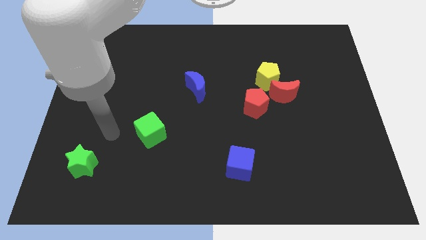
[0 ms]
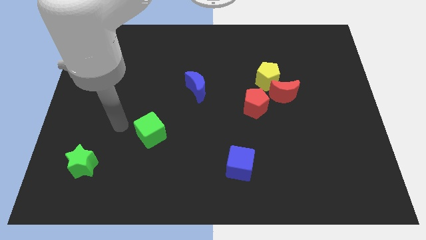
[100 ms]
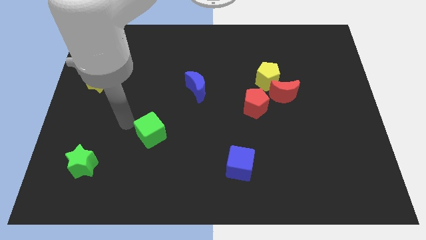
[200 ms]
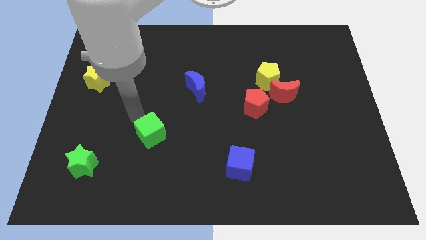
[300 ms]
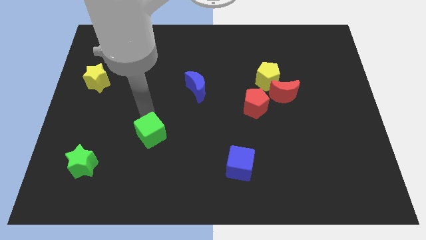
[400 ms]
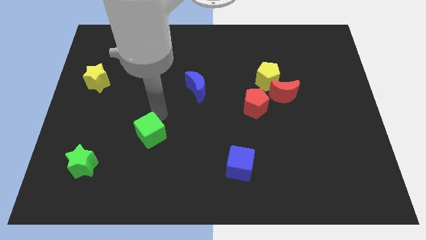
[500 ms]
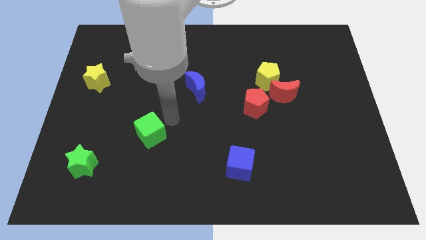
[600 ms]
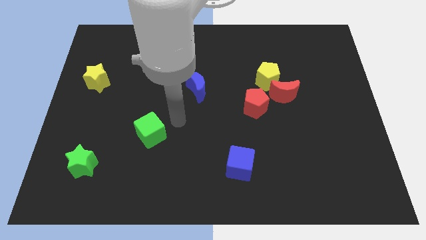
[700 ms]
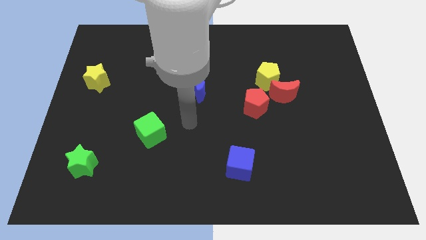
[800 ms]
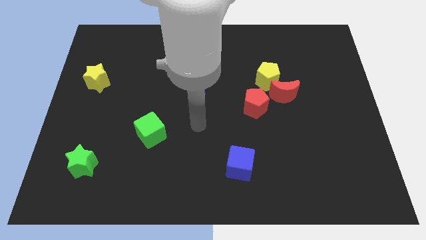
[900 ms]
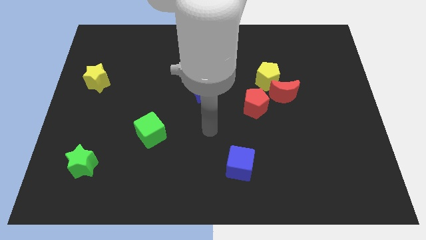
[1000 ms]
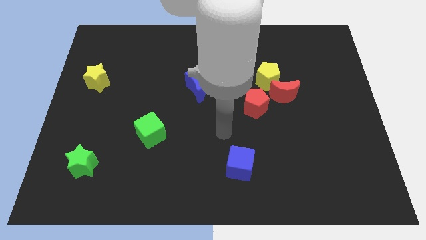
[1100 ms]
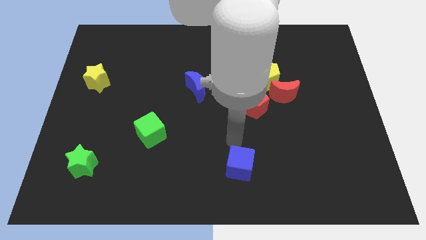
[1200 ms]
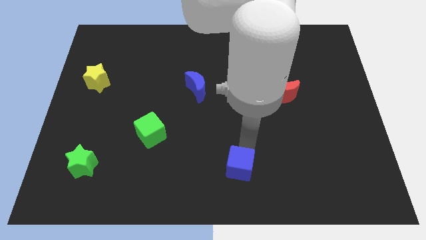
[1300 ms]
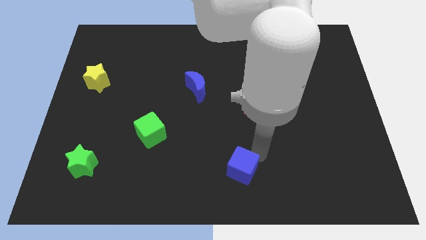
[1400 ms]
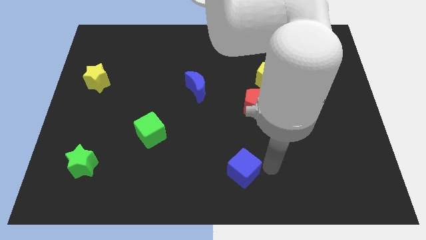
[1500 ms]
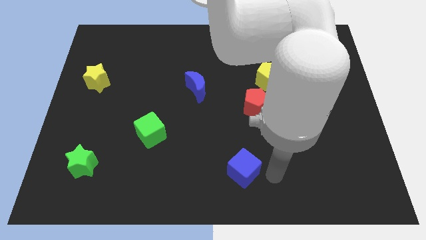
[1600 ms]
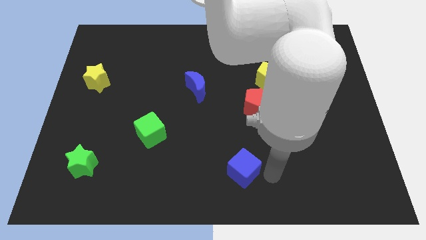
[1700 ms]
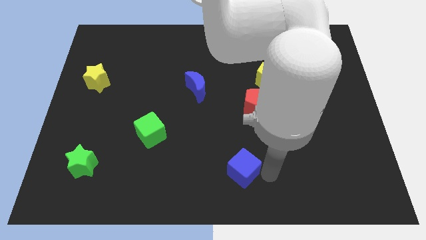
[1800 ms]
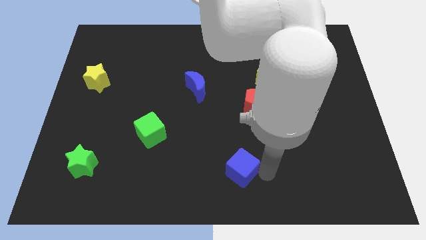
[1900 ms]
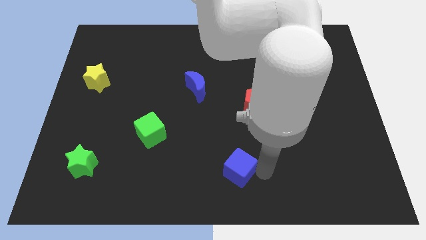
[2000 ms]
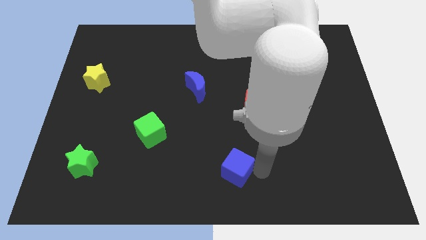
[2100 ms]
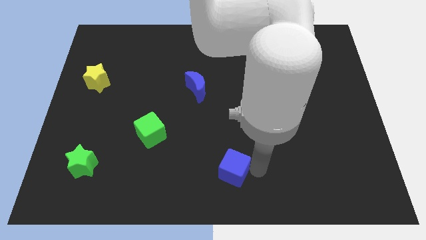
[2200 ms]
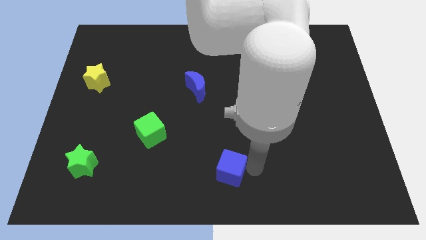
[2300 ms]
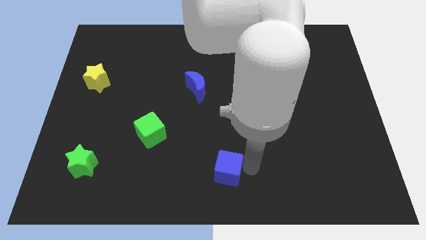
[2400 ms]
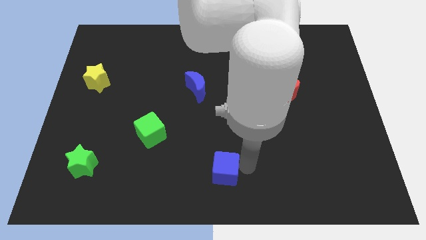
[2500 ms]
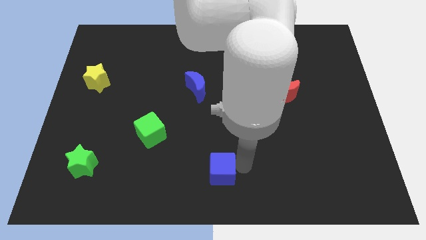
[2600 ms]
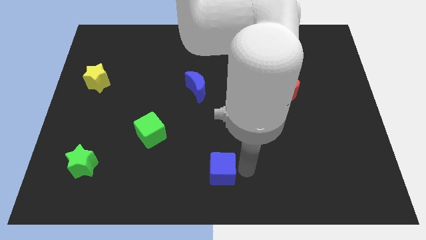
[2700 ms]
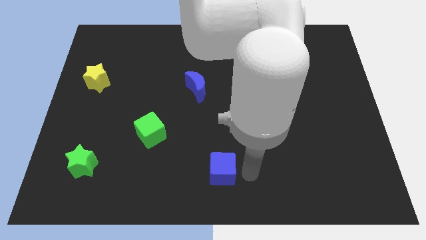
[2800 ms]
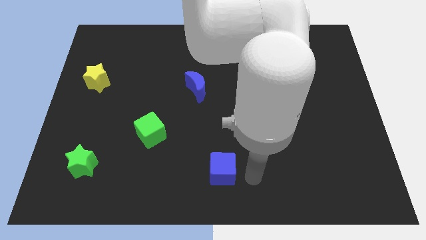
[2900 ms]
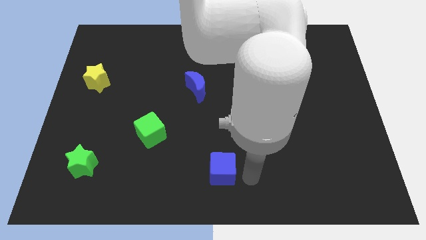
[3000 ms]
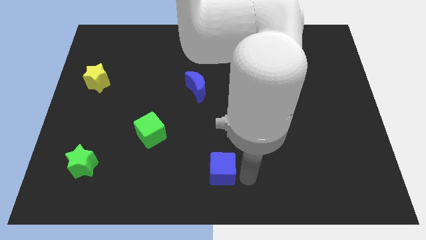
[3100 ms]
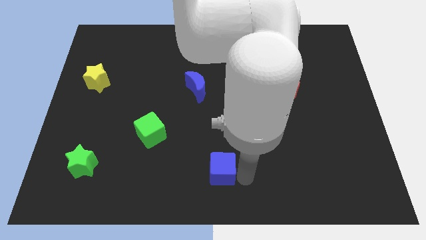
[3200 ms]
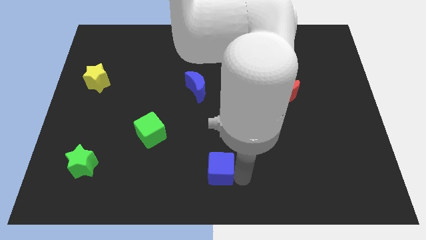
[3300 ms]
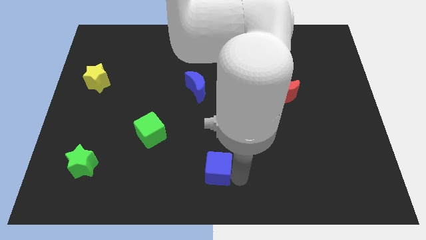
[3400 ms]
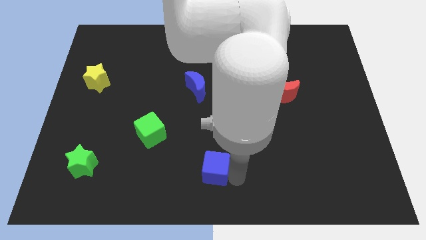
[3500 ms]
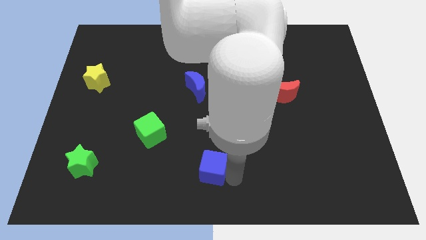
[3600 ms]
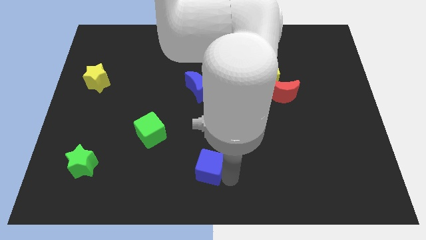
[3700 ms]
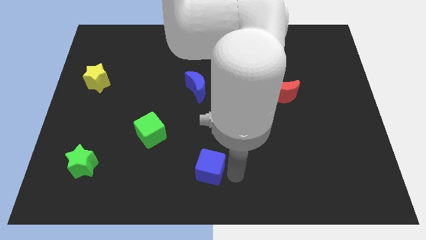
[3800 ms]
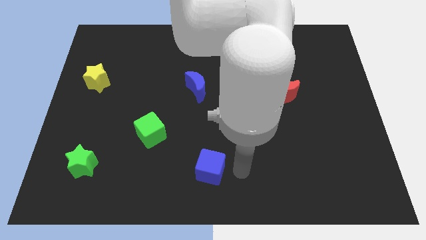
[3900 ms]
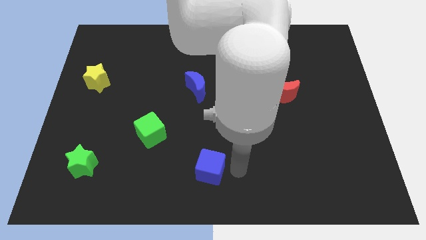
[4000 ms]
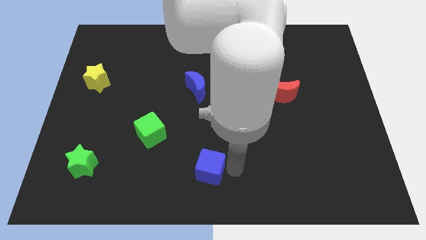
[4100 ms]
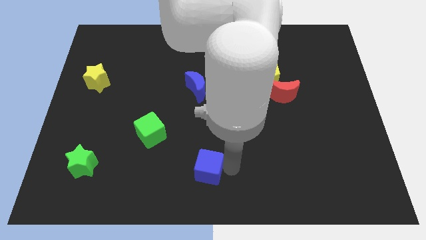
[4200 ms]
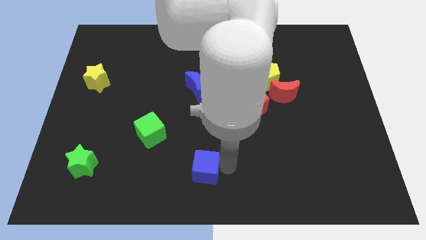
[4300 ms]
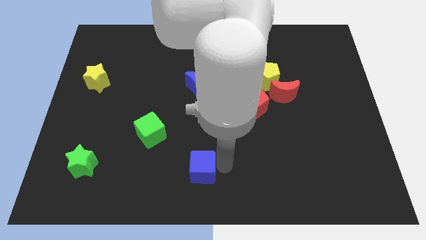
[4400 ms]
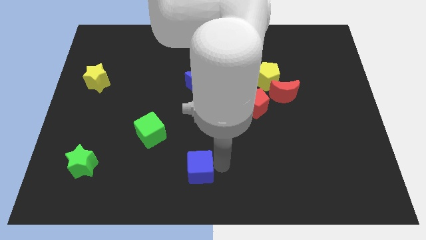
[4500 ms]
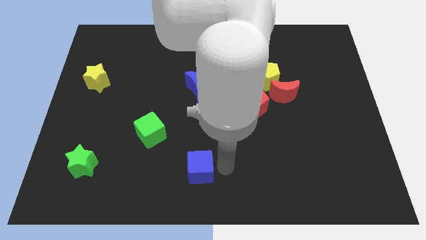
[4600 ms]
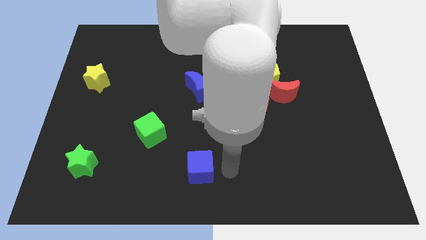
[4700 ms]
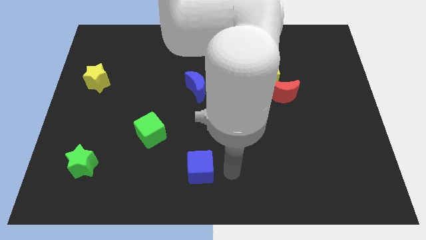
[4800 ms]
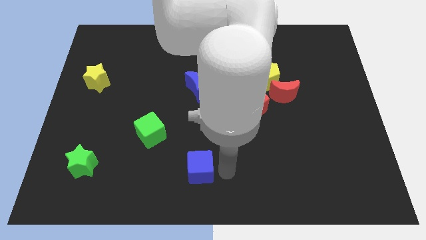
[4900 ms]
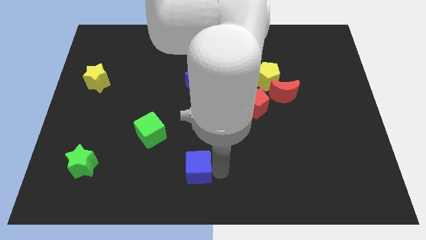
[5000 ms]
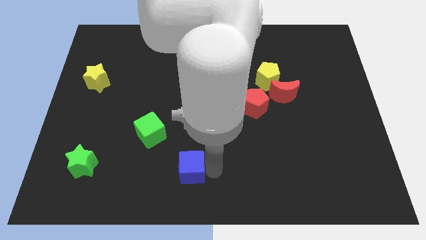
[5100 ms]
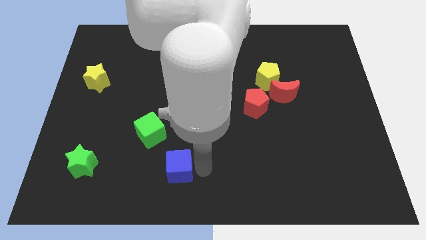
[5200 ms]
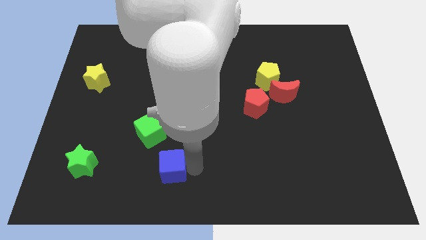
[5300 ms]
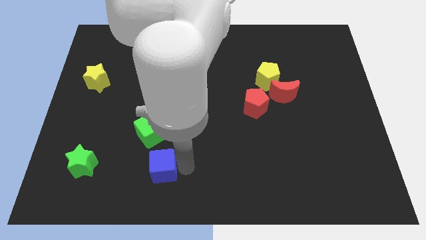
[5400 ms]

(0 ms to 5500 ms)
slide the blue cube below the green cube
